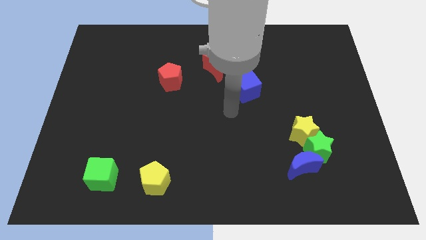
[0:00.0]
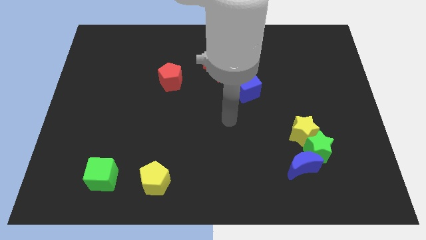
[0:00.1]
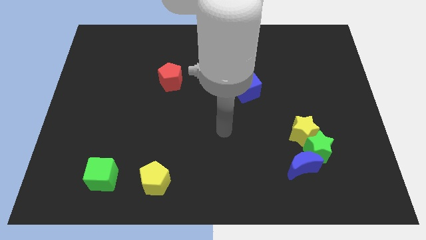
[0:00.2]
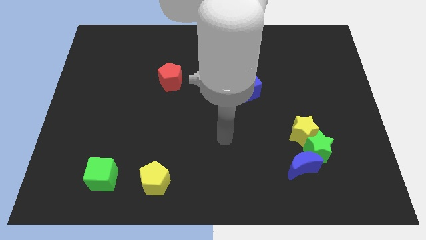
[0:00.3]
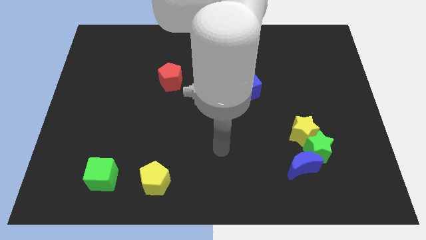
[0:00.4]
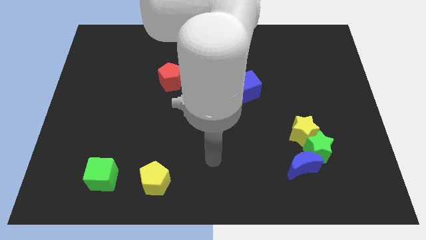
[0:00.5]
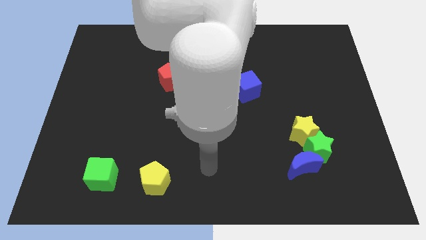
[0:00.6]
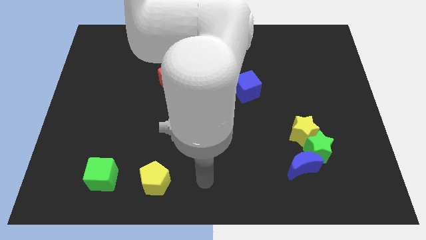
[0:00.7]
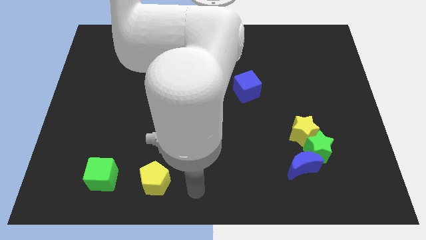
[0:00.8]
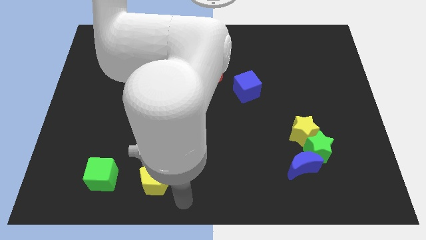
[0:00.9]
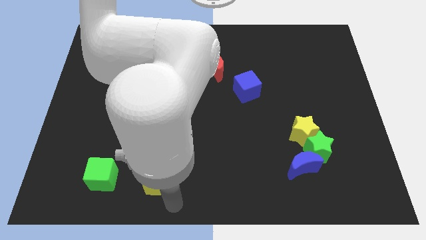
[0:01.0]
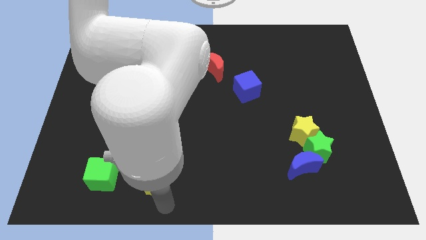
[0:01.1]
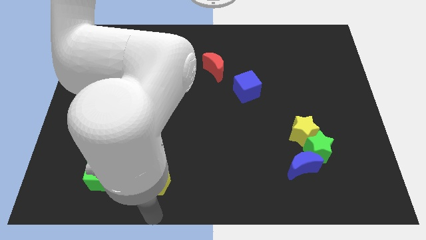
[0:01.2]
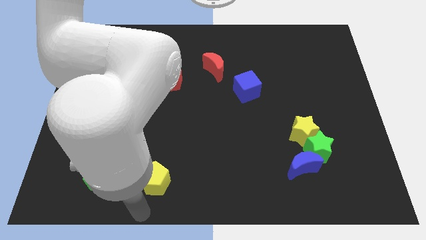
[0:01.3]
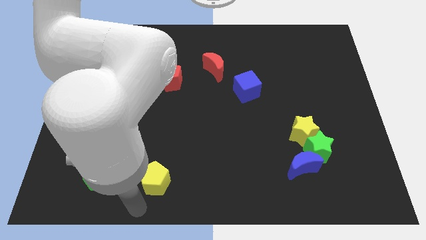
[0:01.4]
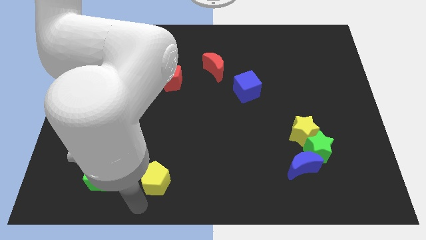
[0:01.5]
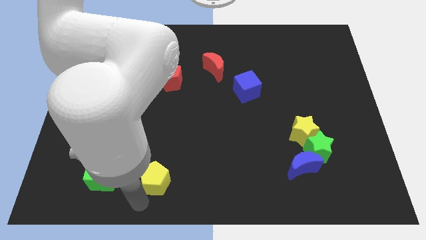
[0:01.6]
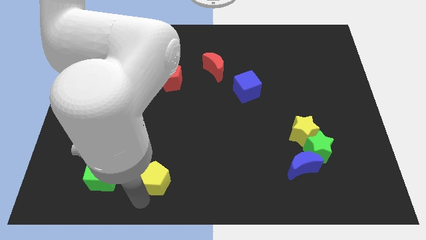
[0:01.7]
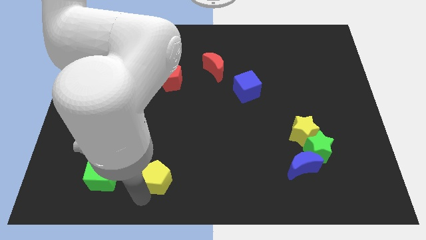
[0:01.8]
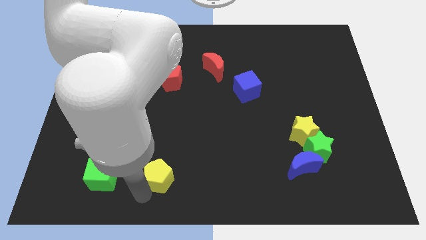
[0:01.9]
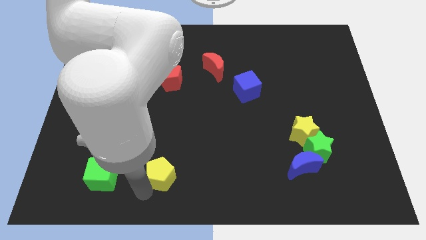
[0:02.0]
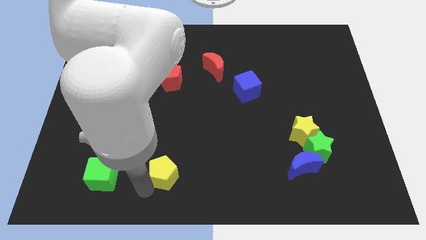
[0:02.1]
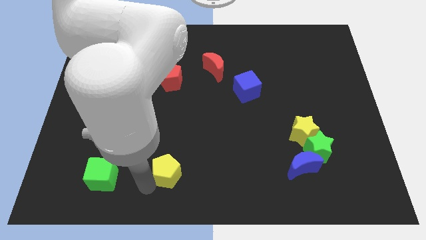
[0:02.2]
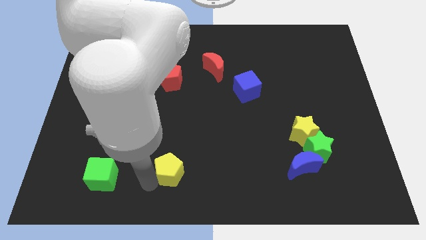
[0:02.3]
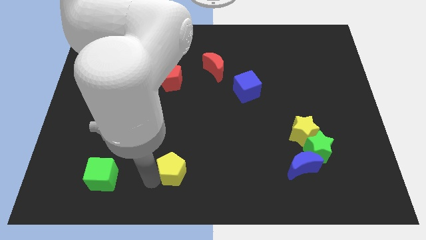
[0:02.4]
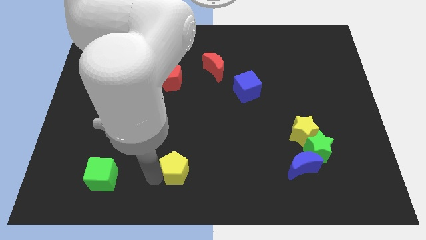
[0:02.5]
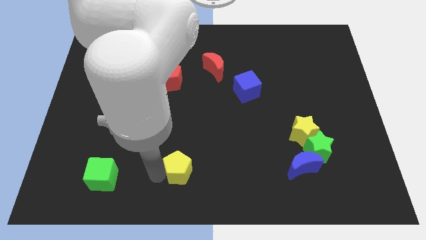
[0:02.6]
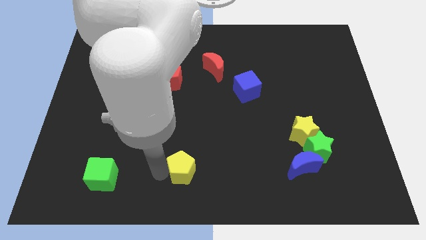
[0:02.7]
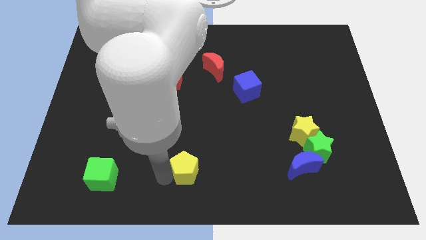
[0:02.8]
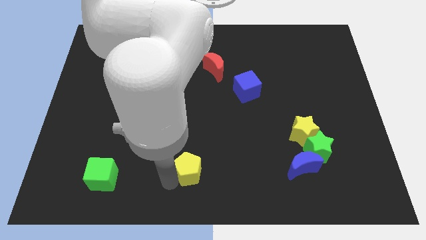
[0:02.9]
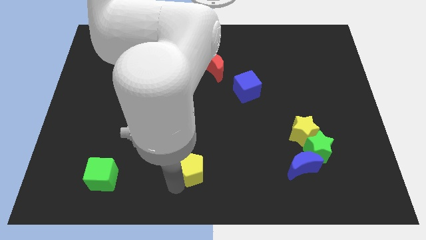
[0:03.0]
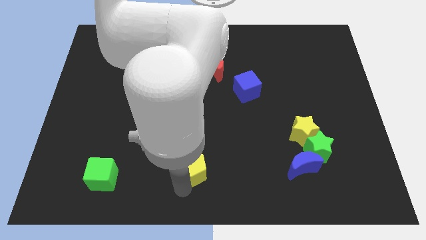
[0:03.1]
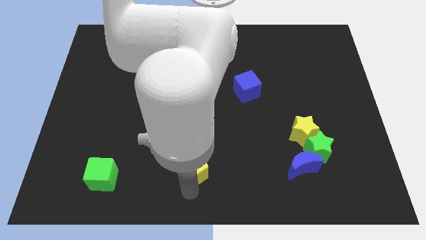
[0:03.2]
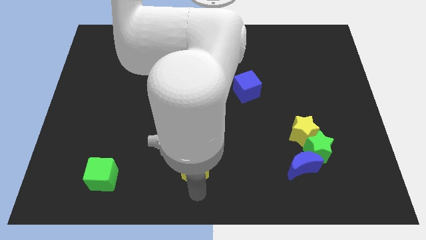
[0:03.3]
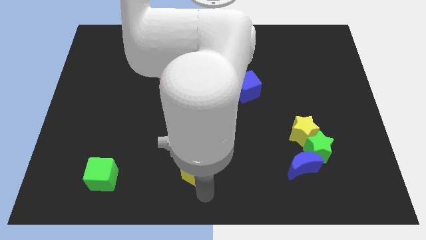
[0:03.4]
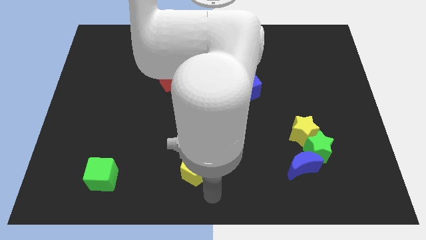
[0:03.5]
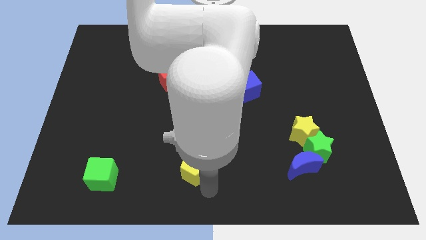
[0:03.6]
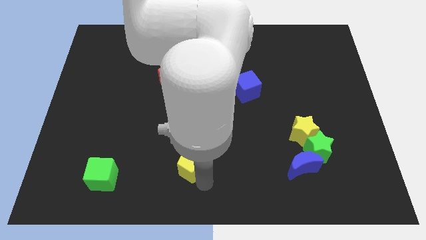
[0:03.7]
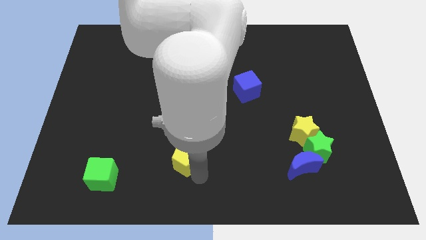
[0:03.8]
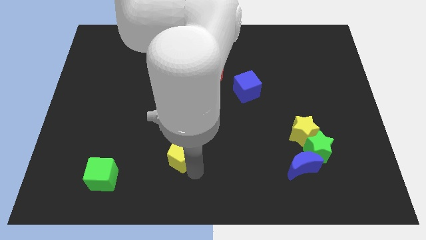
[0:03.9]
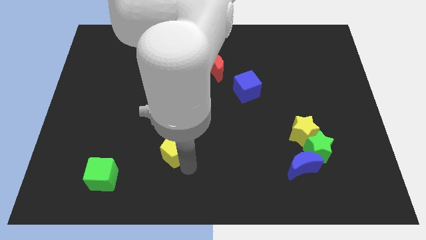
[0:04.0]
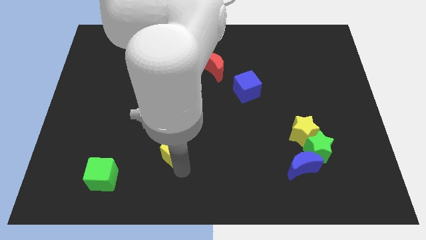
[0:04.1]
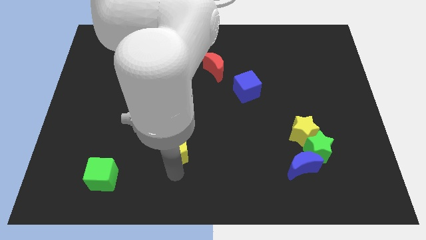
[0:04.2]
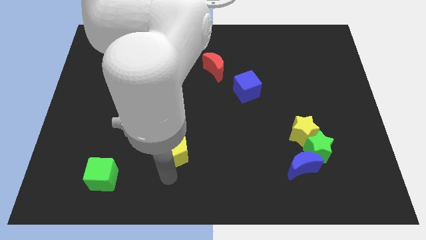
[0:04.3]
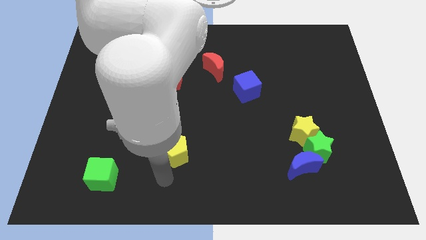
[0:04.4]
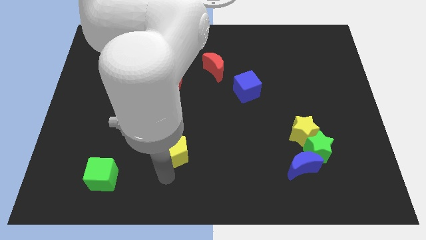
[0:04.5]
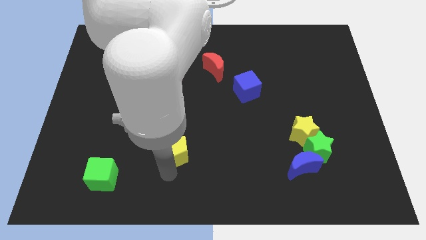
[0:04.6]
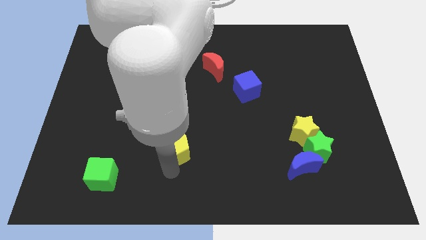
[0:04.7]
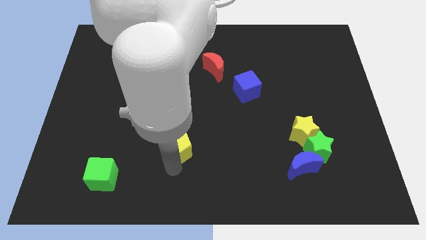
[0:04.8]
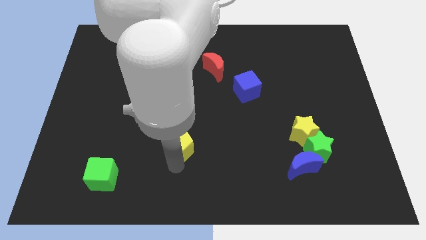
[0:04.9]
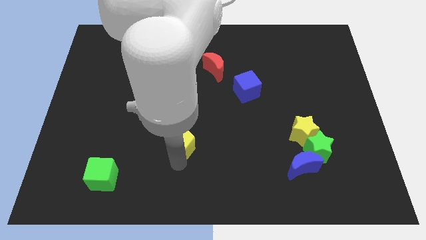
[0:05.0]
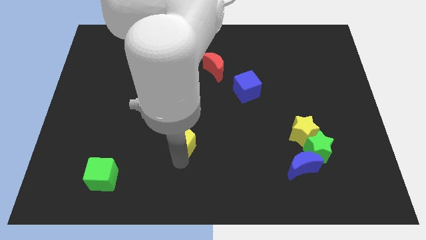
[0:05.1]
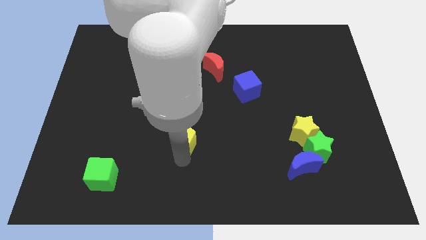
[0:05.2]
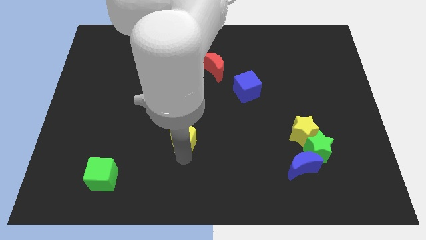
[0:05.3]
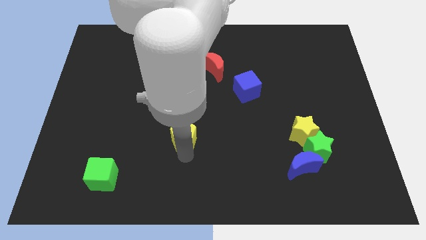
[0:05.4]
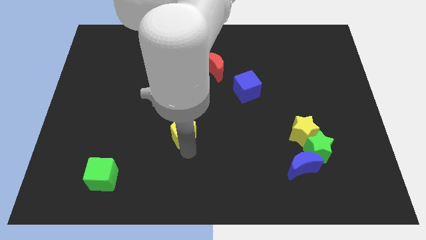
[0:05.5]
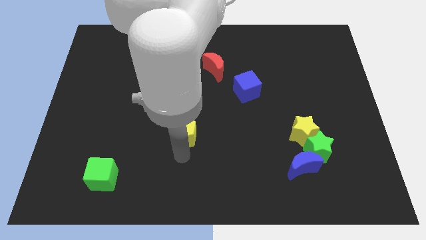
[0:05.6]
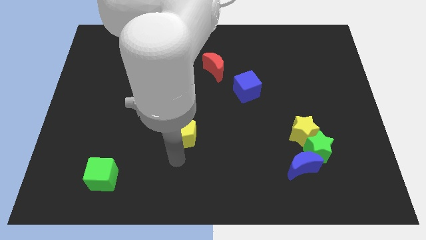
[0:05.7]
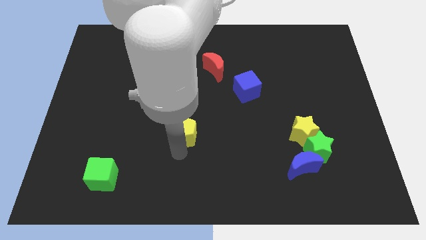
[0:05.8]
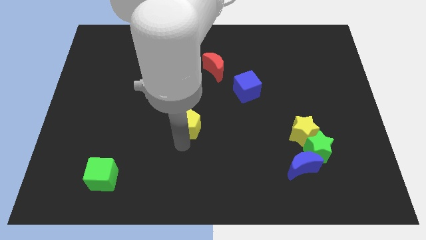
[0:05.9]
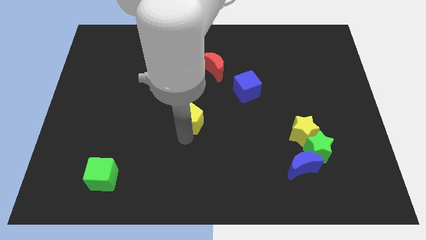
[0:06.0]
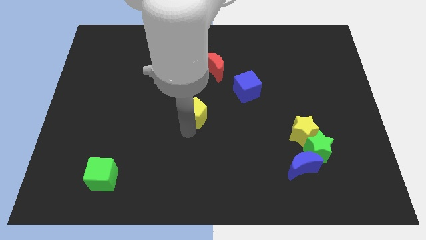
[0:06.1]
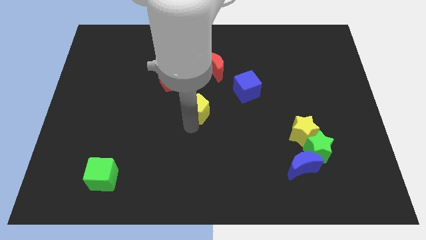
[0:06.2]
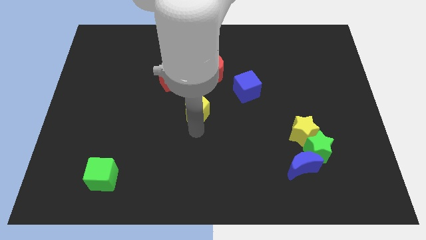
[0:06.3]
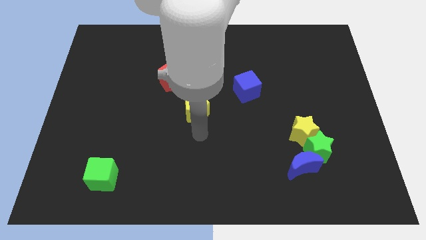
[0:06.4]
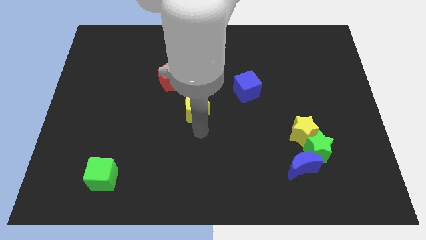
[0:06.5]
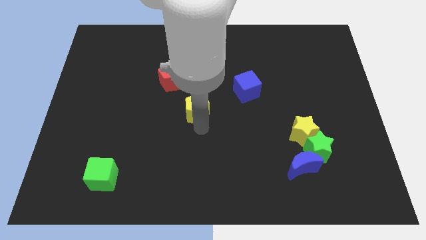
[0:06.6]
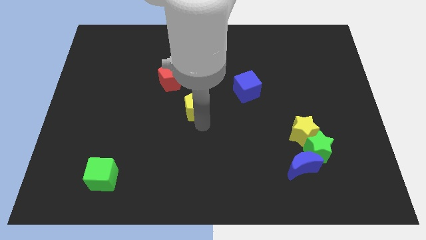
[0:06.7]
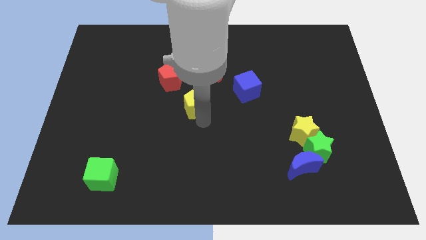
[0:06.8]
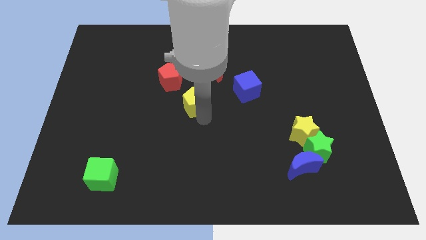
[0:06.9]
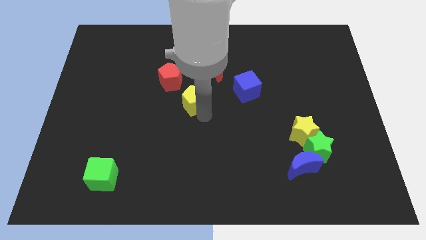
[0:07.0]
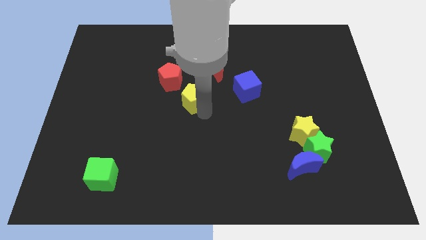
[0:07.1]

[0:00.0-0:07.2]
put the yellow pentagon to the bottom left of the red moon
